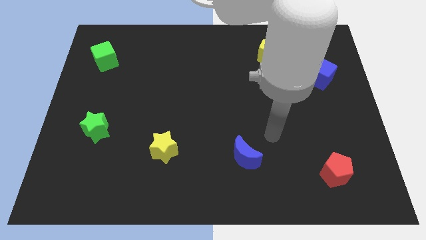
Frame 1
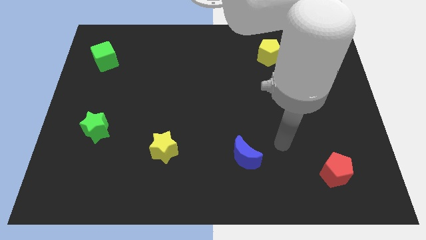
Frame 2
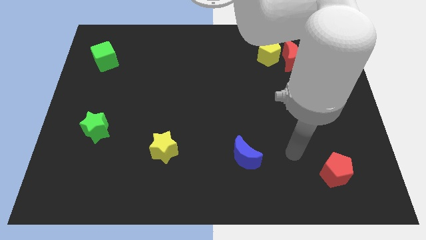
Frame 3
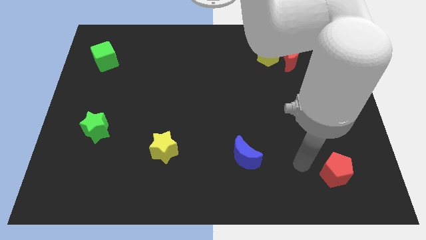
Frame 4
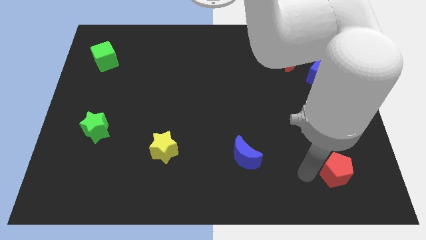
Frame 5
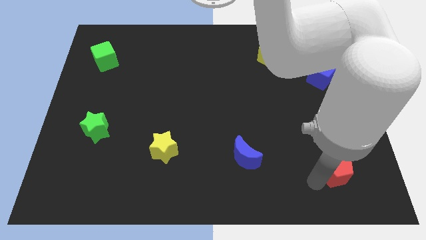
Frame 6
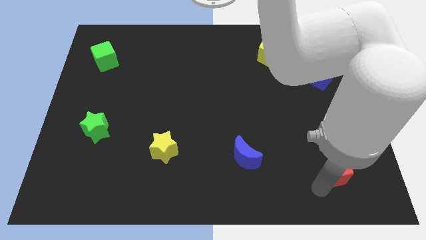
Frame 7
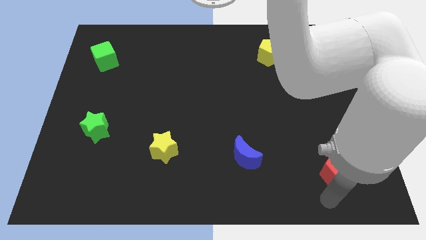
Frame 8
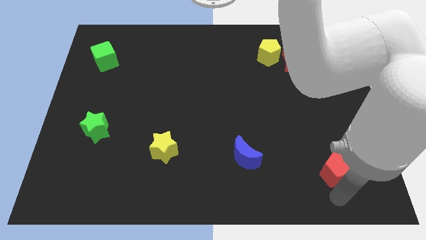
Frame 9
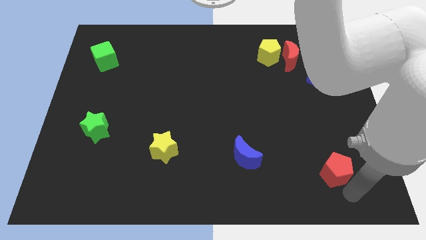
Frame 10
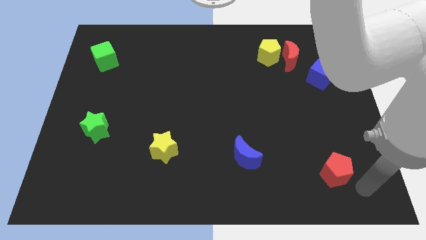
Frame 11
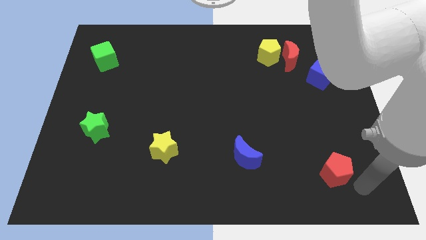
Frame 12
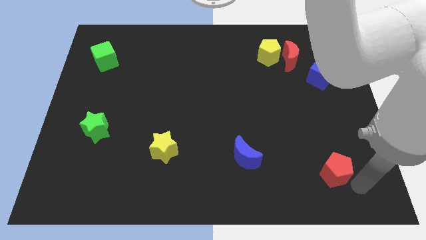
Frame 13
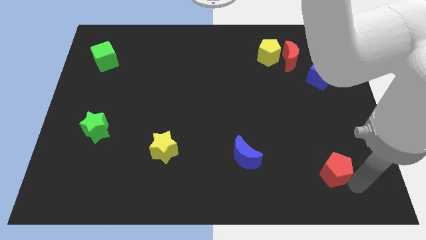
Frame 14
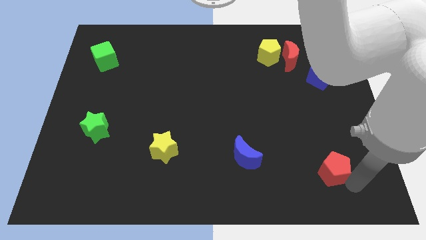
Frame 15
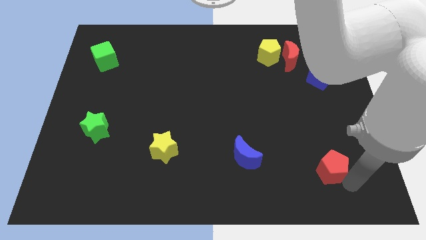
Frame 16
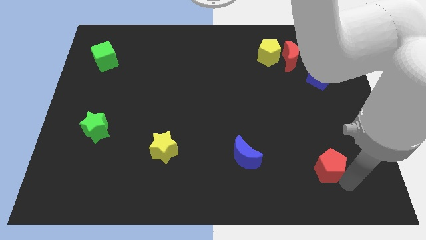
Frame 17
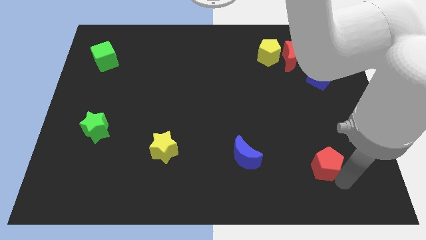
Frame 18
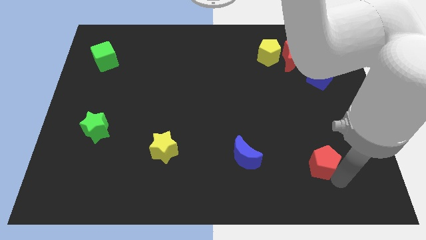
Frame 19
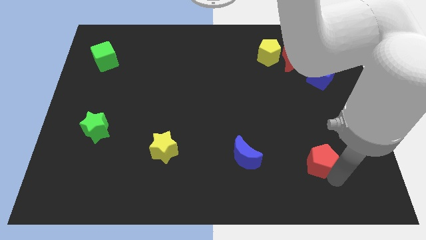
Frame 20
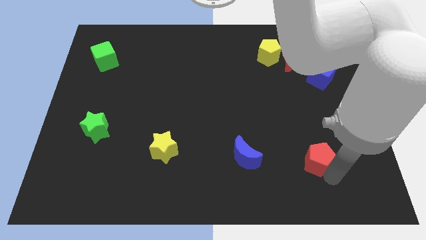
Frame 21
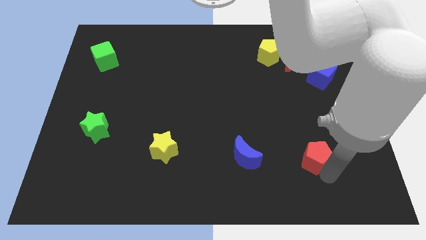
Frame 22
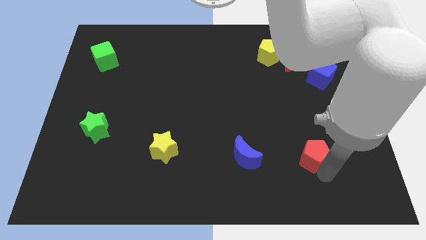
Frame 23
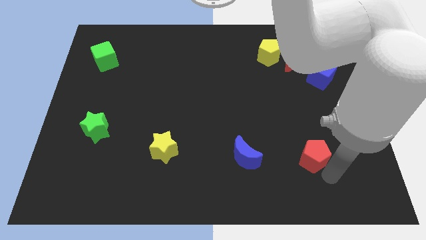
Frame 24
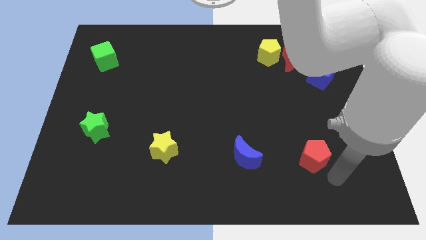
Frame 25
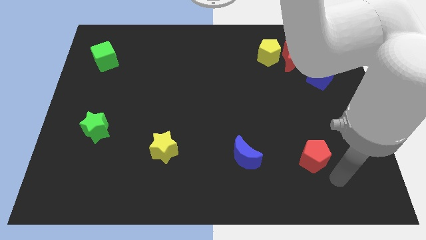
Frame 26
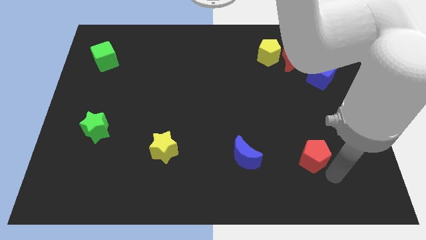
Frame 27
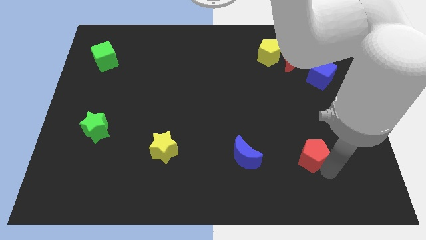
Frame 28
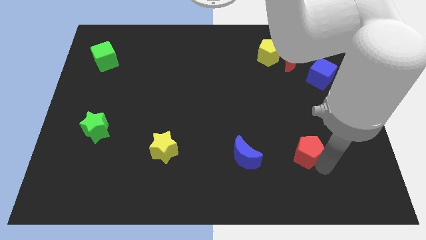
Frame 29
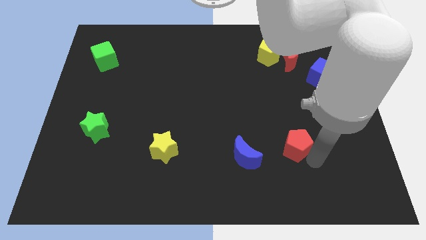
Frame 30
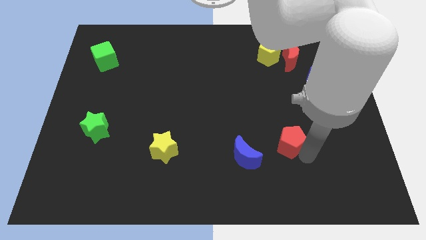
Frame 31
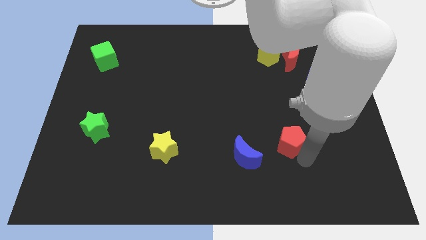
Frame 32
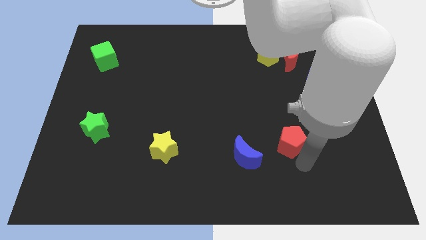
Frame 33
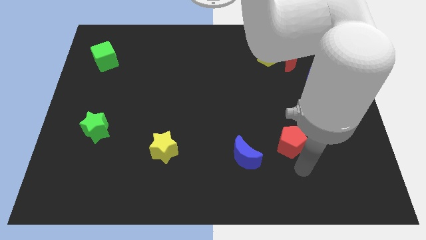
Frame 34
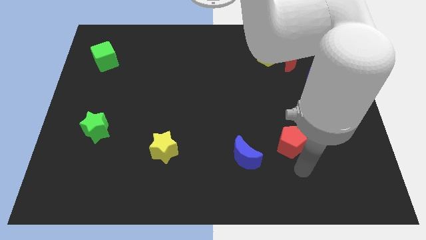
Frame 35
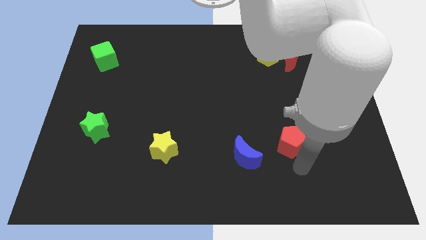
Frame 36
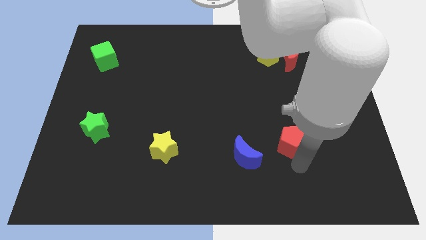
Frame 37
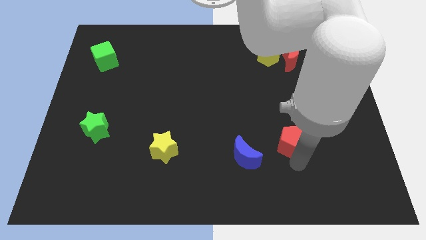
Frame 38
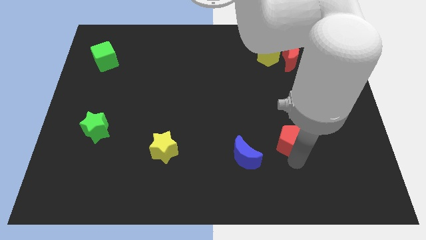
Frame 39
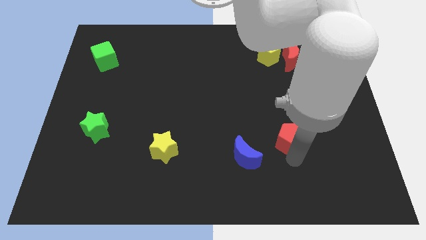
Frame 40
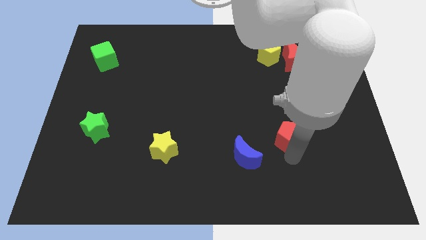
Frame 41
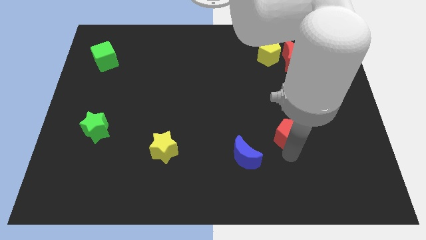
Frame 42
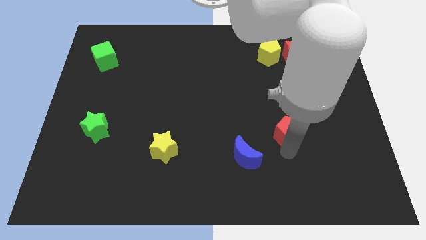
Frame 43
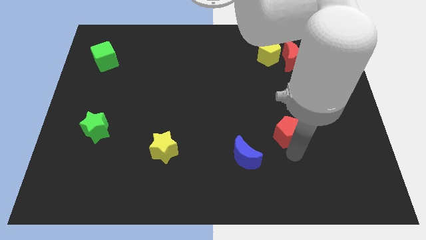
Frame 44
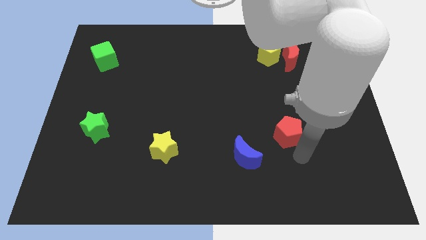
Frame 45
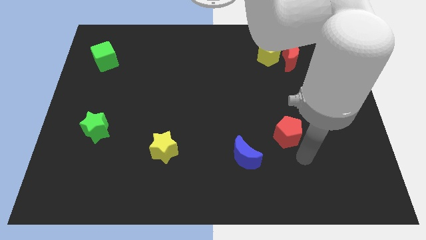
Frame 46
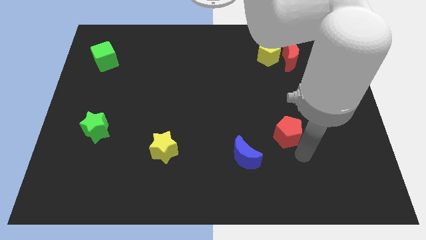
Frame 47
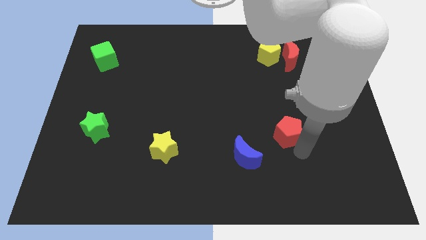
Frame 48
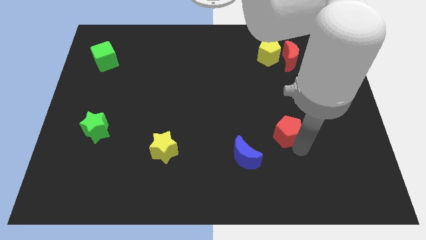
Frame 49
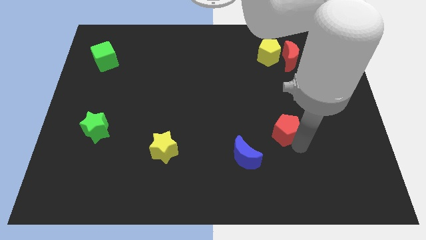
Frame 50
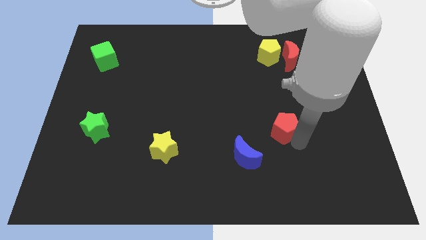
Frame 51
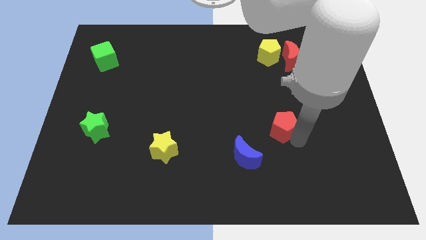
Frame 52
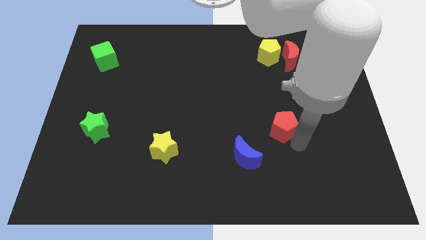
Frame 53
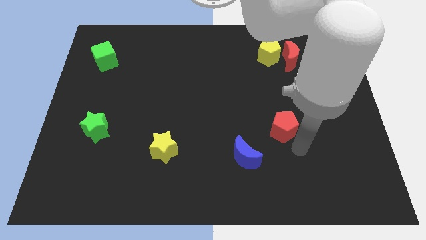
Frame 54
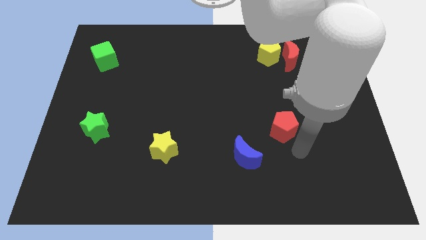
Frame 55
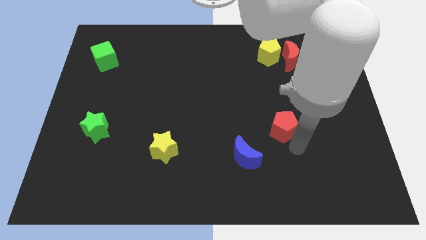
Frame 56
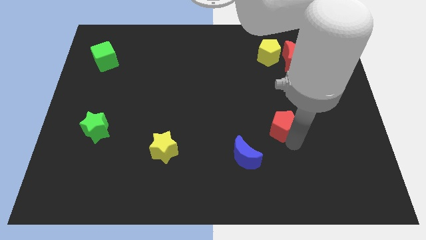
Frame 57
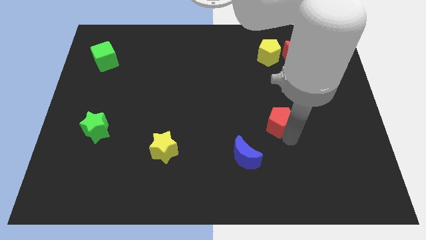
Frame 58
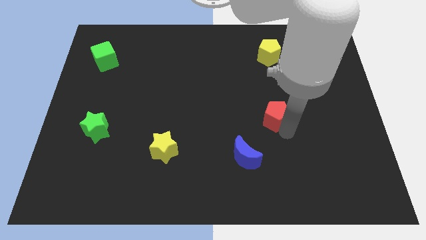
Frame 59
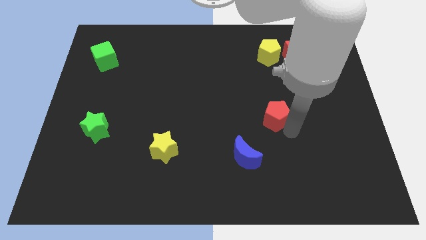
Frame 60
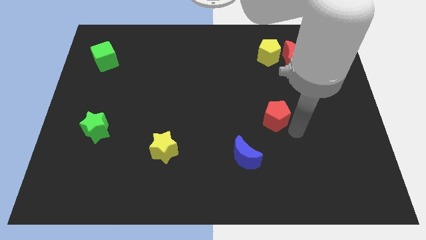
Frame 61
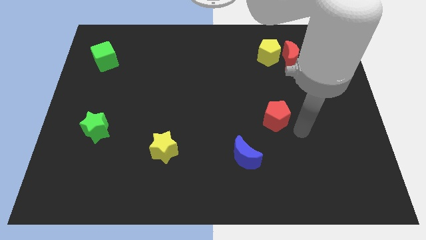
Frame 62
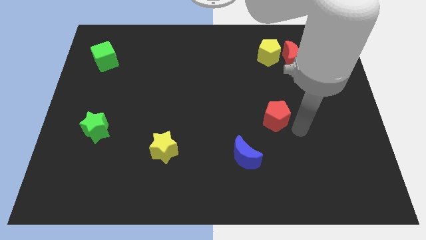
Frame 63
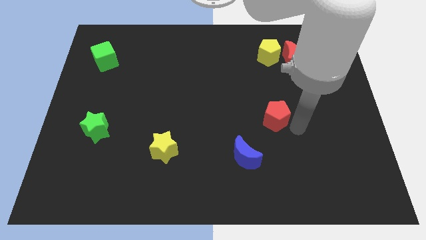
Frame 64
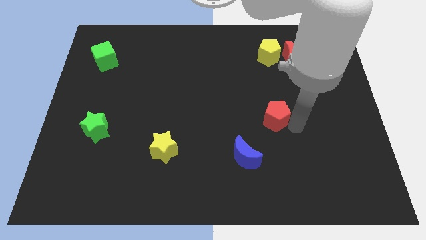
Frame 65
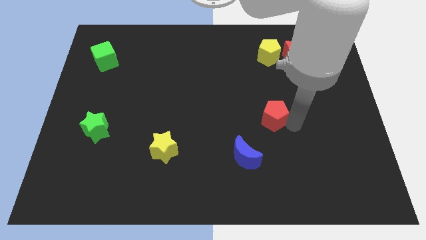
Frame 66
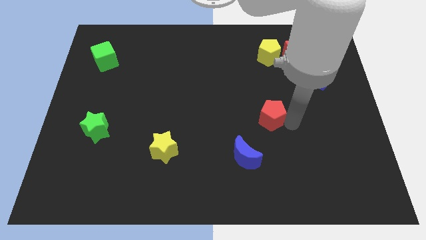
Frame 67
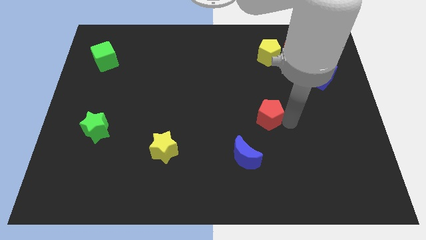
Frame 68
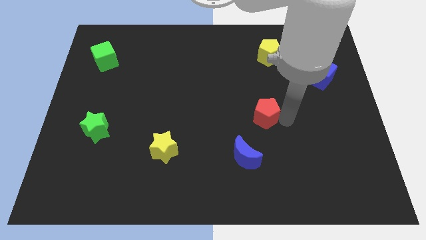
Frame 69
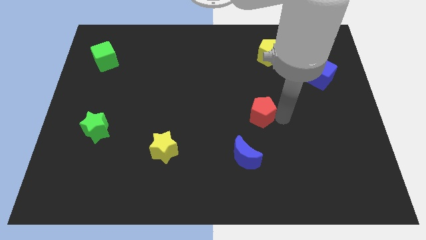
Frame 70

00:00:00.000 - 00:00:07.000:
move the red pentagon up and then left

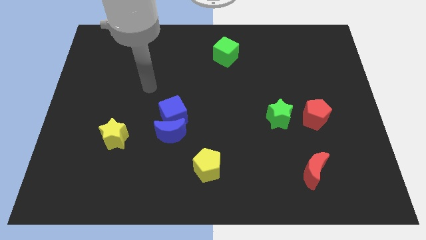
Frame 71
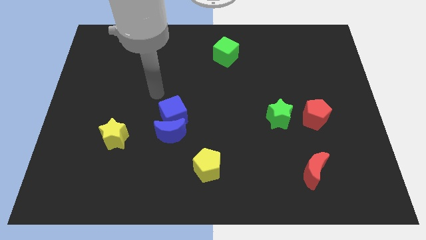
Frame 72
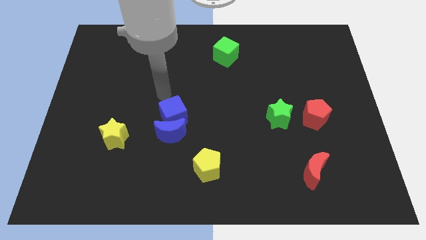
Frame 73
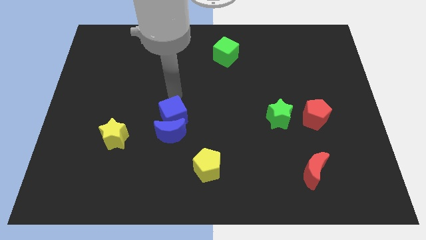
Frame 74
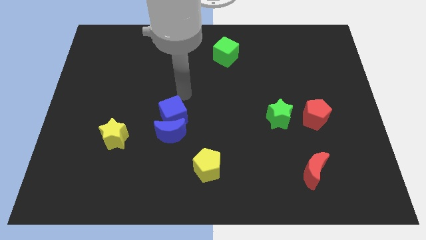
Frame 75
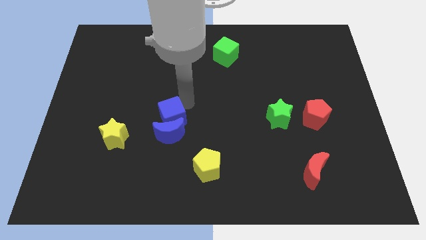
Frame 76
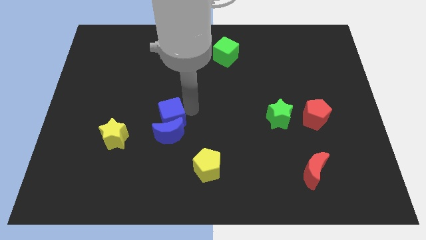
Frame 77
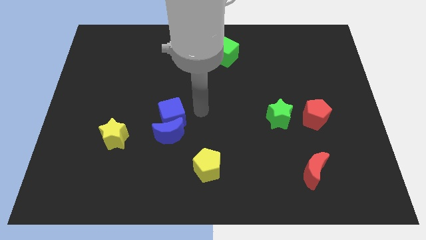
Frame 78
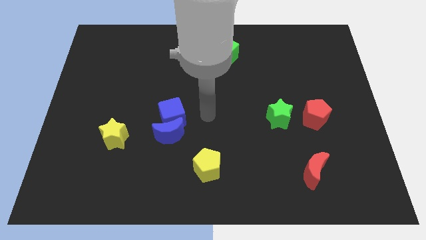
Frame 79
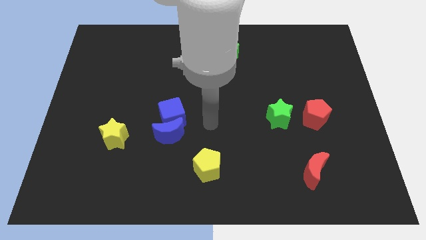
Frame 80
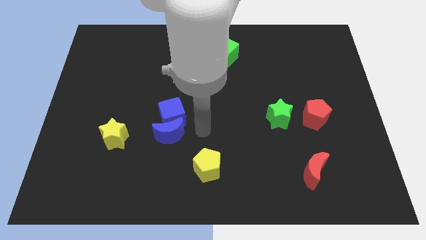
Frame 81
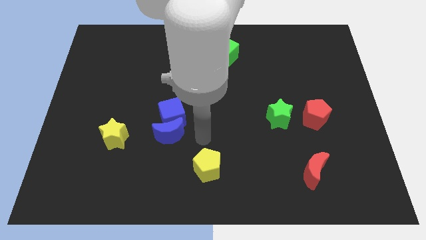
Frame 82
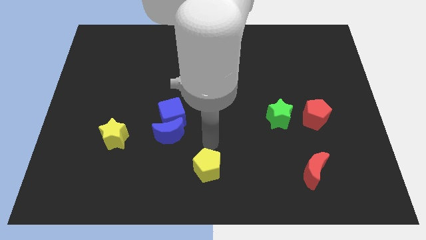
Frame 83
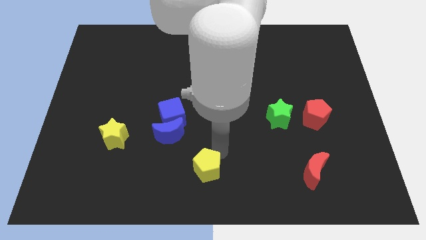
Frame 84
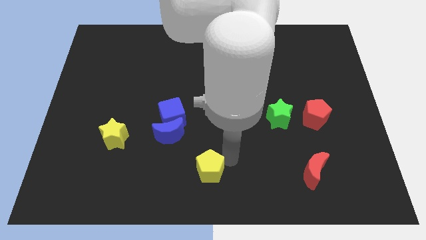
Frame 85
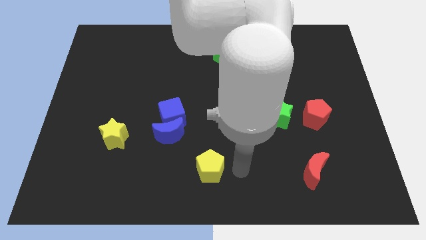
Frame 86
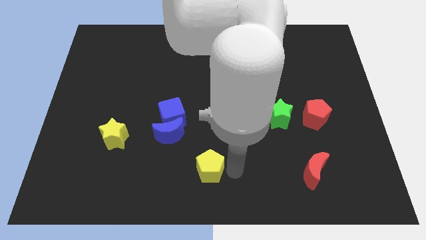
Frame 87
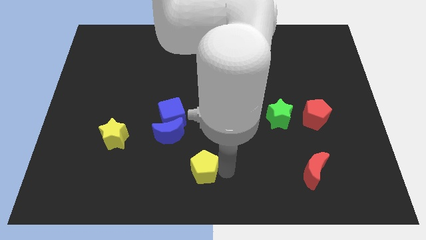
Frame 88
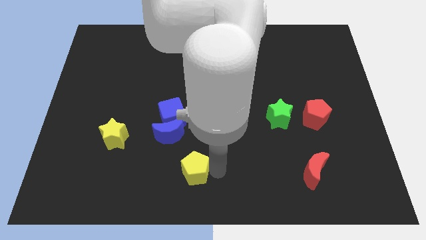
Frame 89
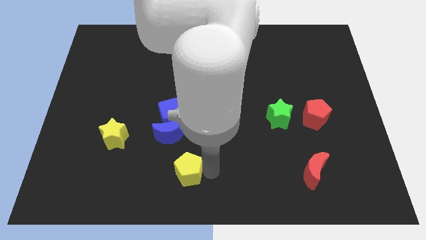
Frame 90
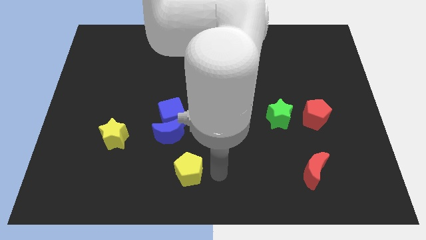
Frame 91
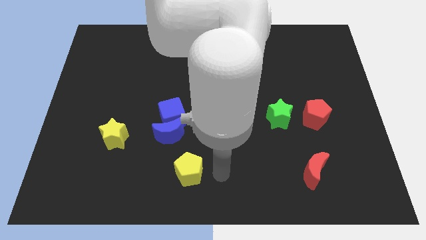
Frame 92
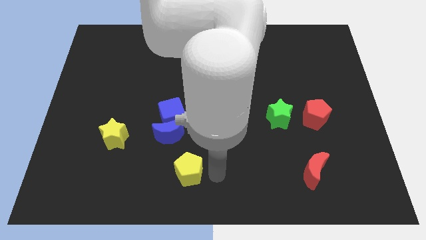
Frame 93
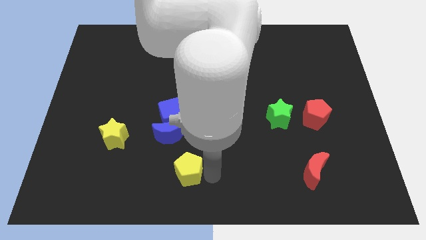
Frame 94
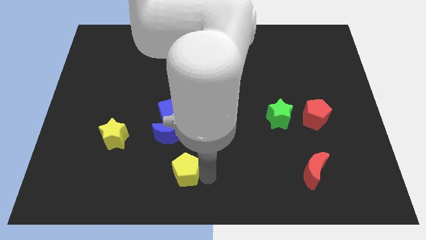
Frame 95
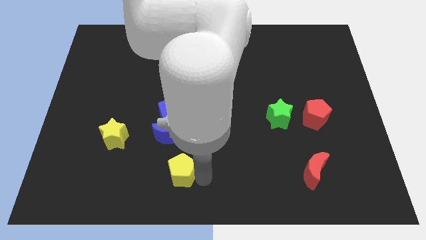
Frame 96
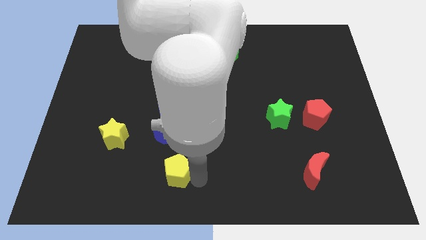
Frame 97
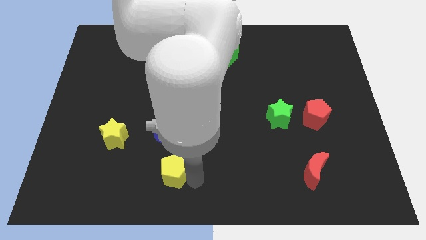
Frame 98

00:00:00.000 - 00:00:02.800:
move the yellow pentagon left a little bit
